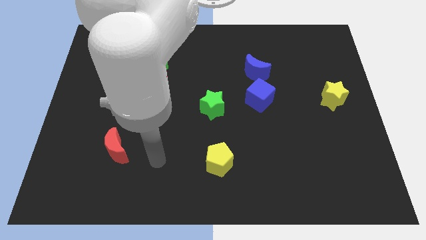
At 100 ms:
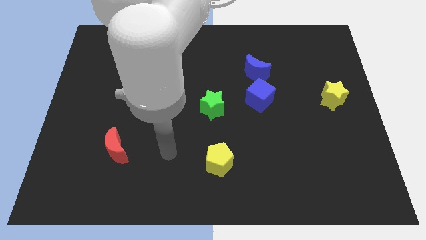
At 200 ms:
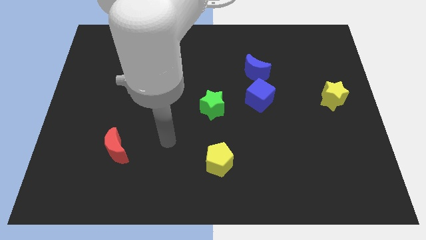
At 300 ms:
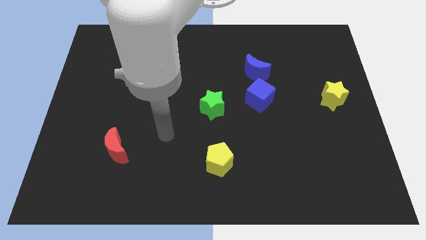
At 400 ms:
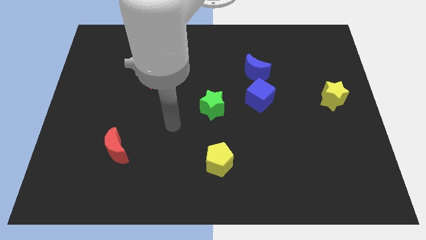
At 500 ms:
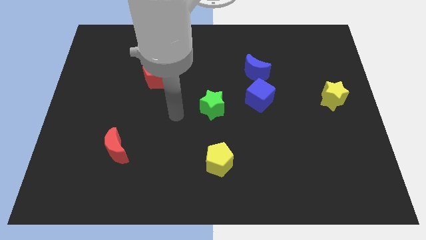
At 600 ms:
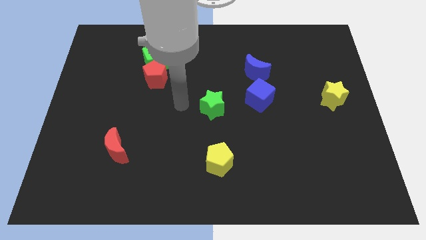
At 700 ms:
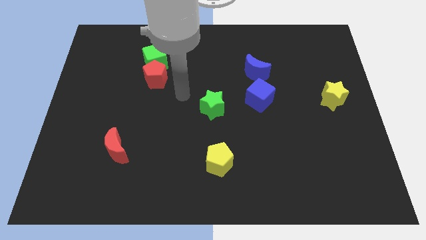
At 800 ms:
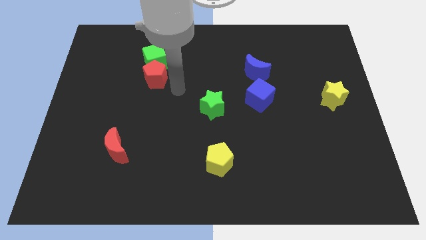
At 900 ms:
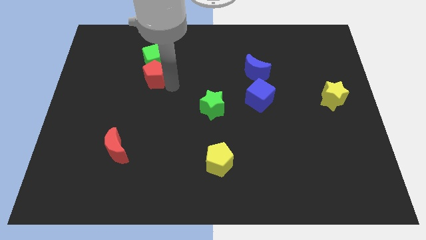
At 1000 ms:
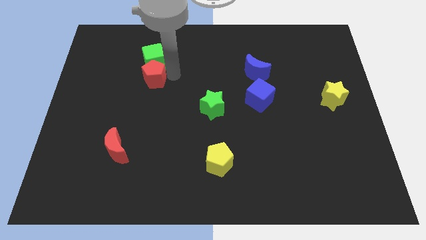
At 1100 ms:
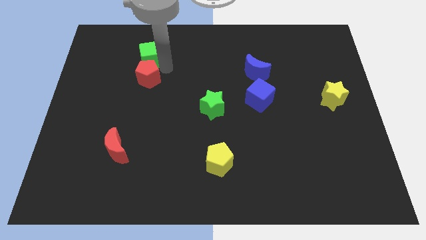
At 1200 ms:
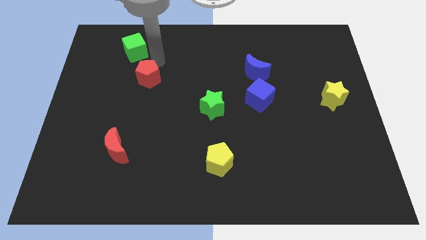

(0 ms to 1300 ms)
separate the red pentagon from the green cube

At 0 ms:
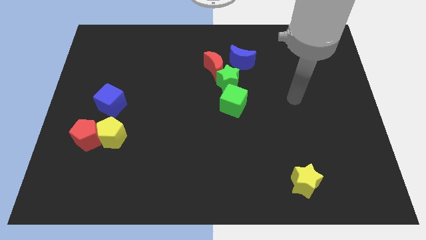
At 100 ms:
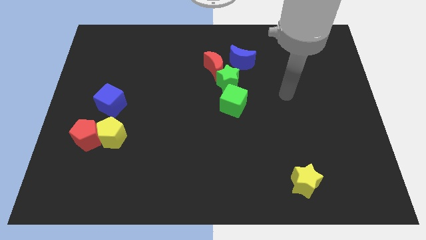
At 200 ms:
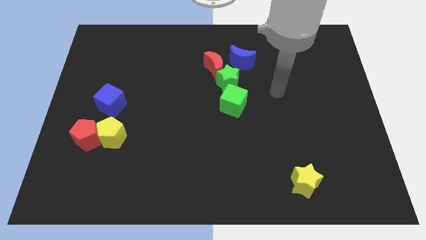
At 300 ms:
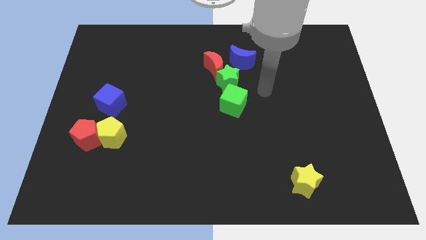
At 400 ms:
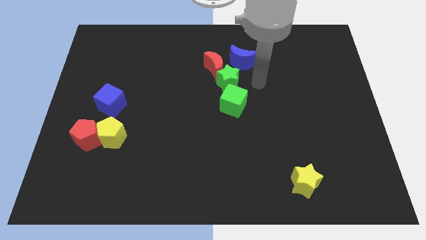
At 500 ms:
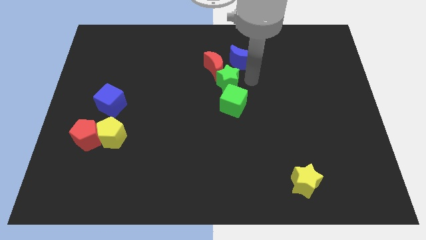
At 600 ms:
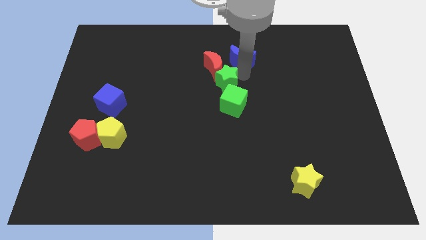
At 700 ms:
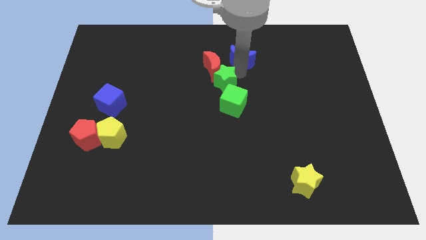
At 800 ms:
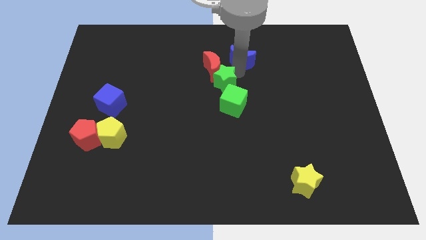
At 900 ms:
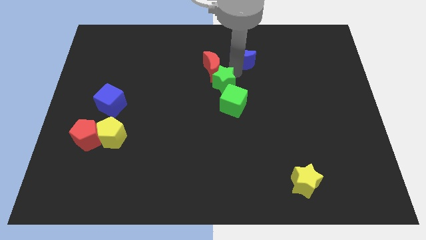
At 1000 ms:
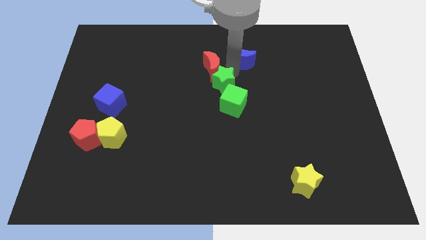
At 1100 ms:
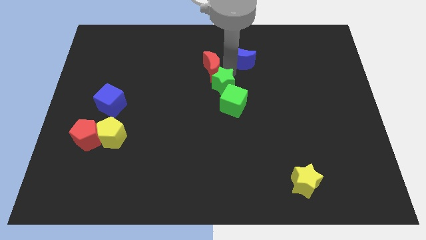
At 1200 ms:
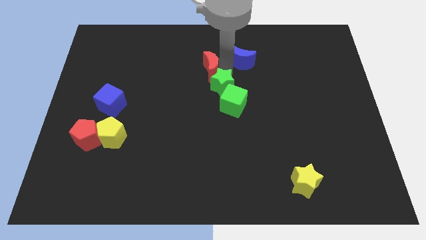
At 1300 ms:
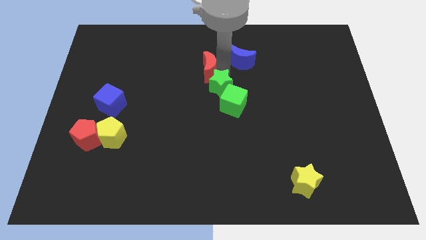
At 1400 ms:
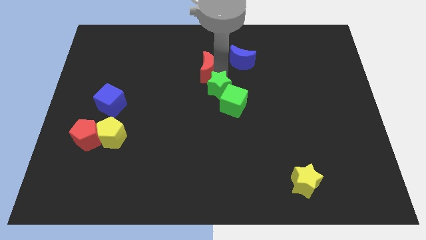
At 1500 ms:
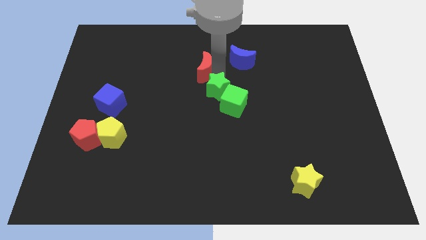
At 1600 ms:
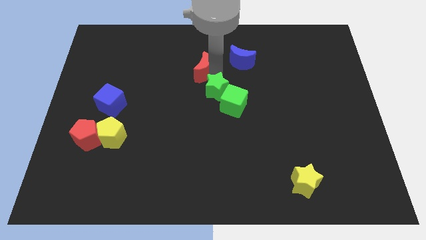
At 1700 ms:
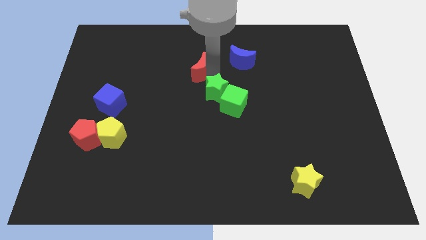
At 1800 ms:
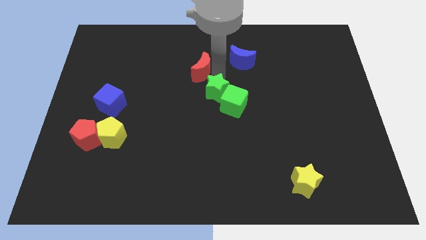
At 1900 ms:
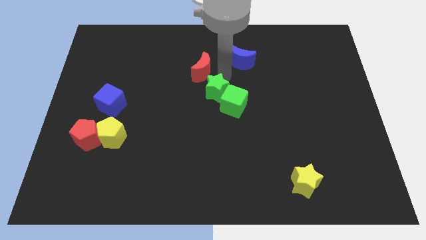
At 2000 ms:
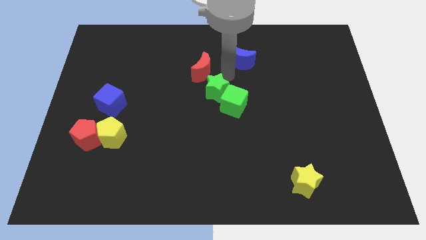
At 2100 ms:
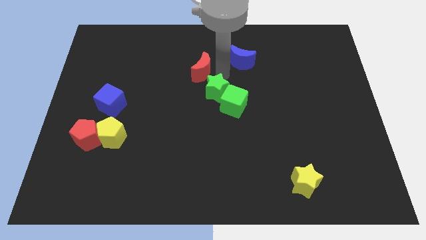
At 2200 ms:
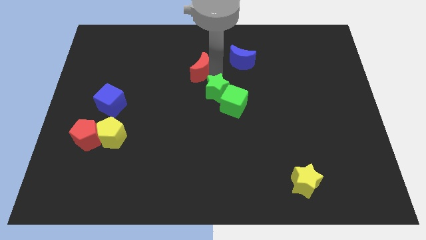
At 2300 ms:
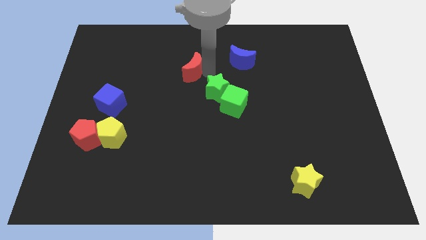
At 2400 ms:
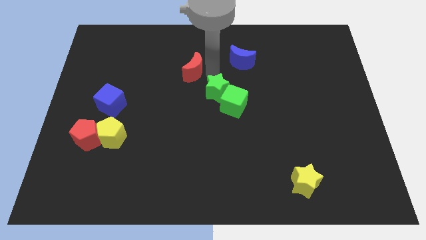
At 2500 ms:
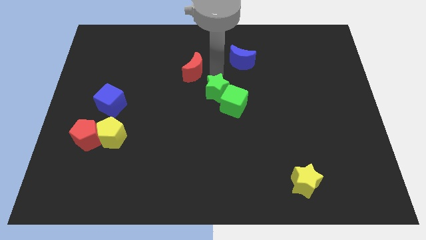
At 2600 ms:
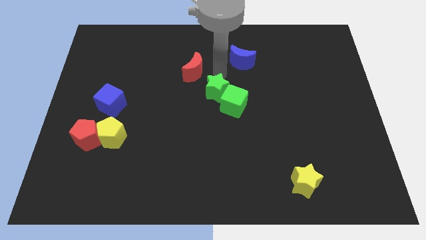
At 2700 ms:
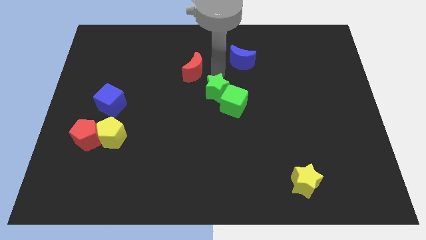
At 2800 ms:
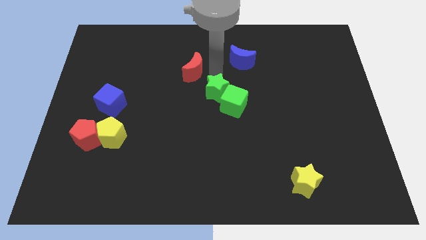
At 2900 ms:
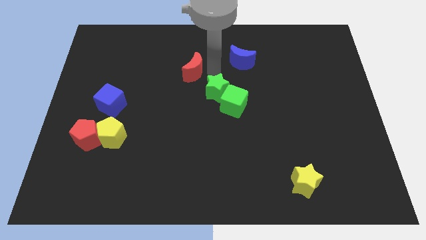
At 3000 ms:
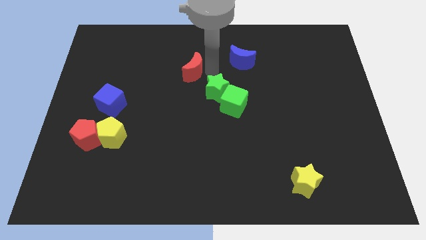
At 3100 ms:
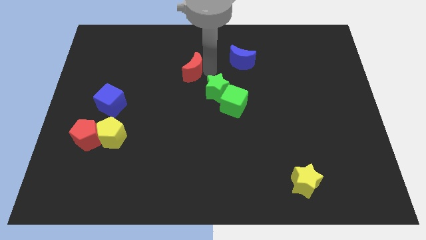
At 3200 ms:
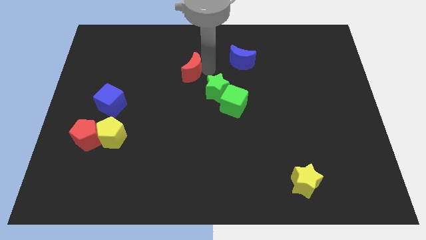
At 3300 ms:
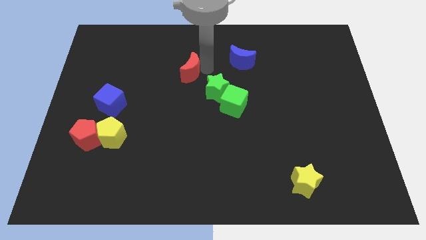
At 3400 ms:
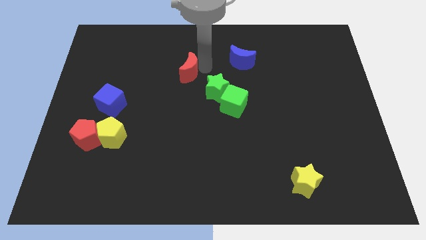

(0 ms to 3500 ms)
pull the red moon apart from the green star and blue moon

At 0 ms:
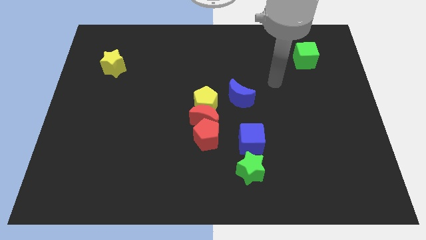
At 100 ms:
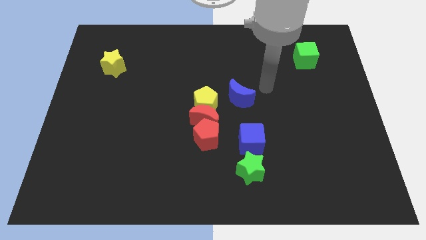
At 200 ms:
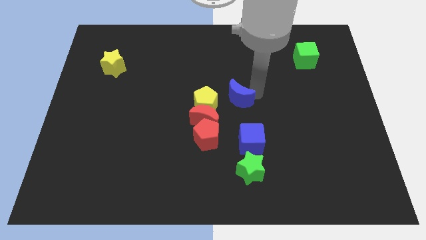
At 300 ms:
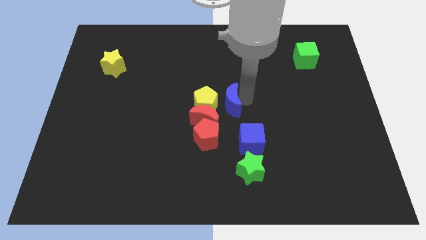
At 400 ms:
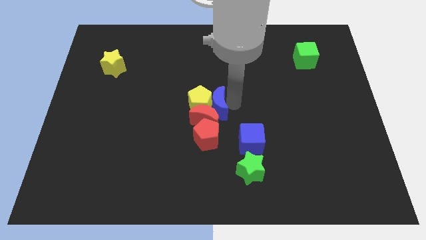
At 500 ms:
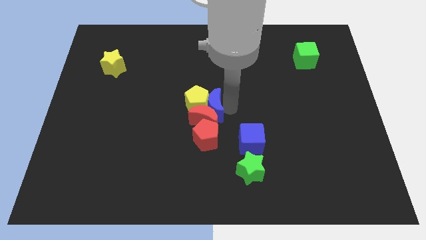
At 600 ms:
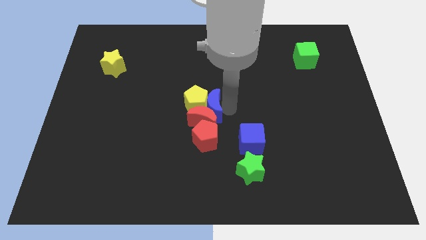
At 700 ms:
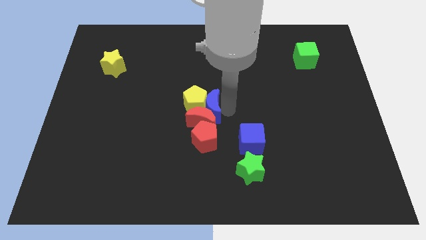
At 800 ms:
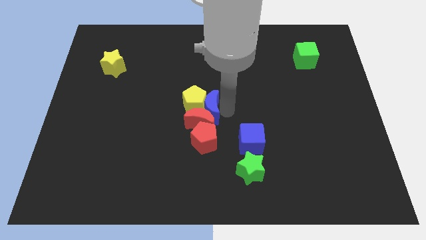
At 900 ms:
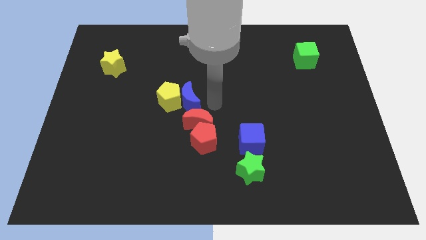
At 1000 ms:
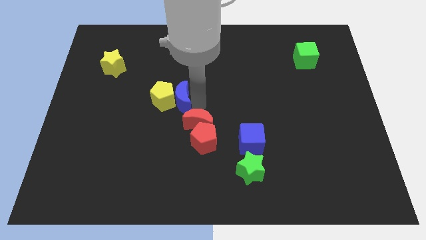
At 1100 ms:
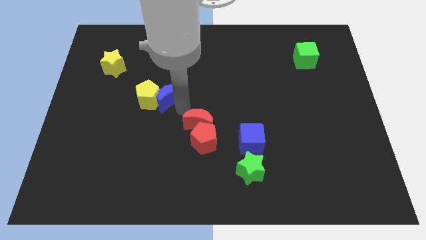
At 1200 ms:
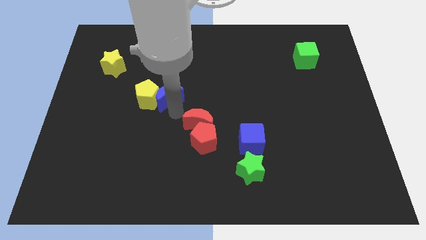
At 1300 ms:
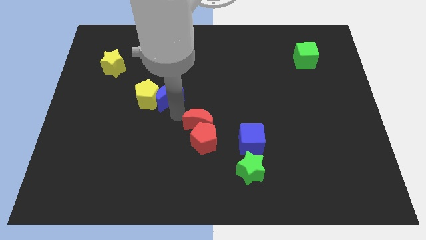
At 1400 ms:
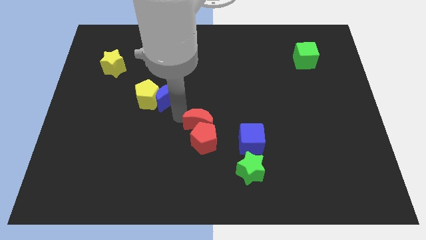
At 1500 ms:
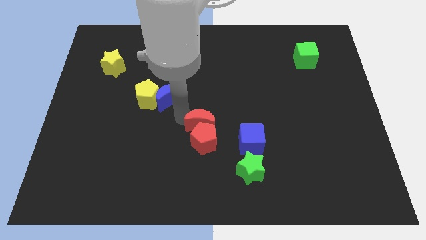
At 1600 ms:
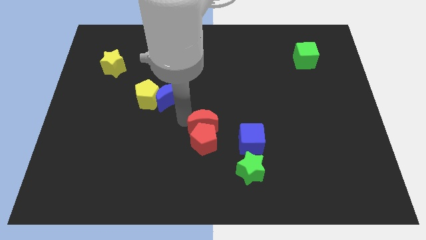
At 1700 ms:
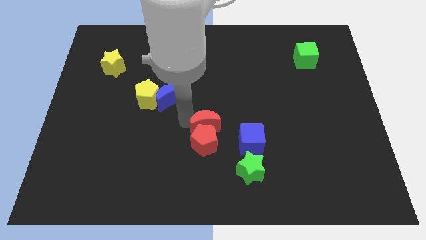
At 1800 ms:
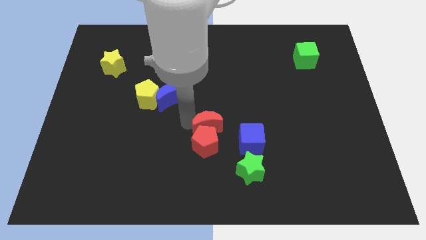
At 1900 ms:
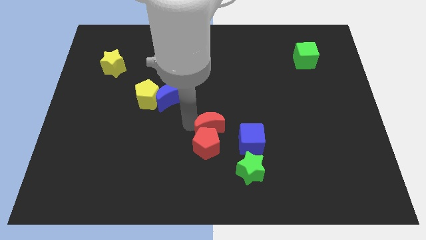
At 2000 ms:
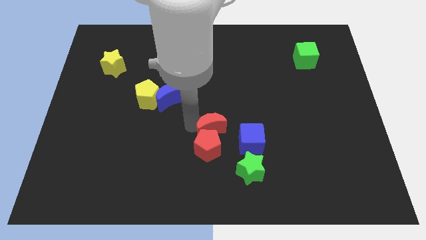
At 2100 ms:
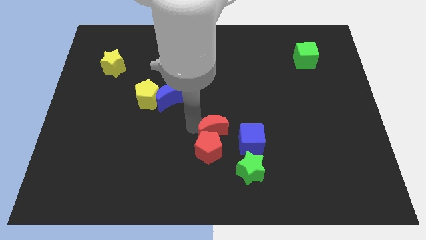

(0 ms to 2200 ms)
separate the red moon from the group

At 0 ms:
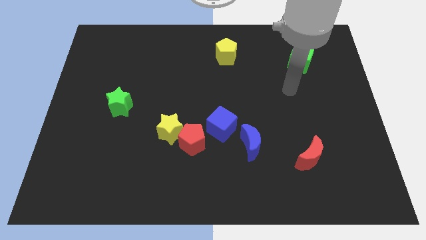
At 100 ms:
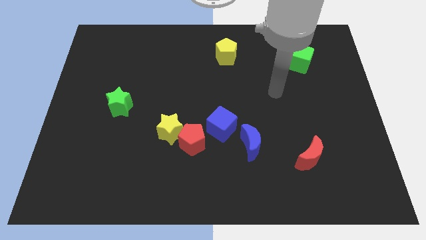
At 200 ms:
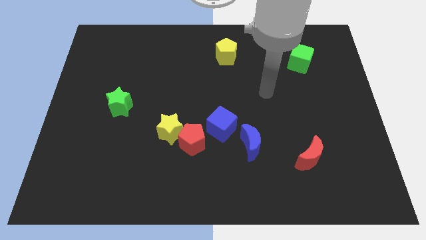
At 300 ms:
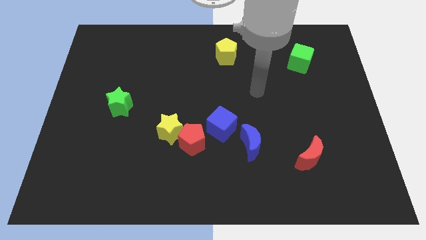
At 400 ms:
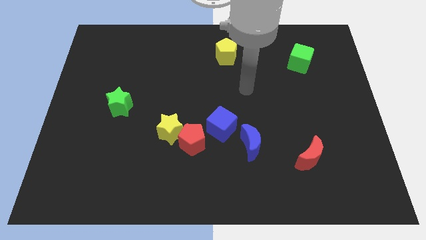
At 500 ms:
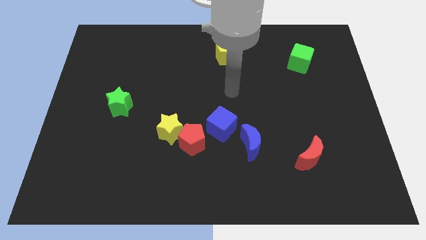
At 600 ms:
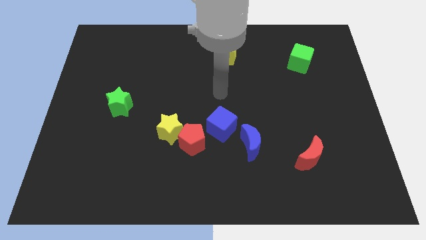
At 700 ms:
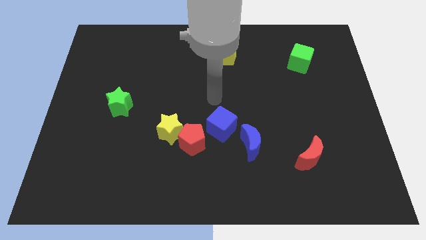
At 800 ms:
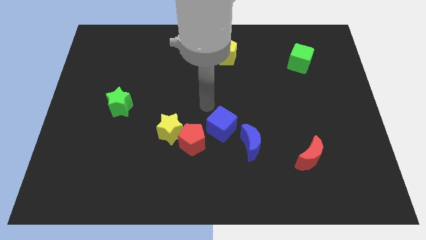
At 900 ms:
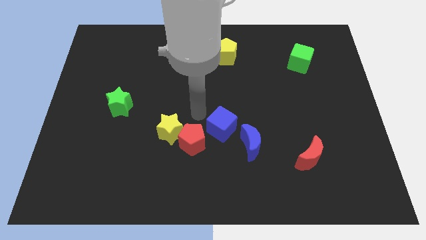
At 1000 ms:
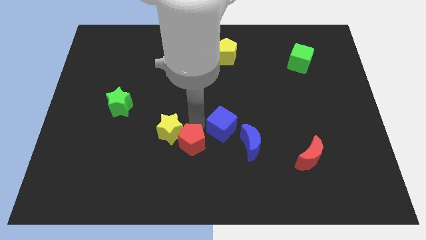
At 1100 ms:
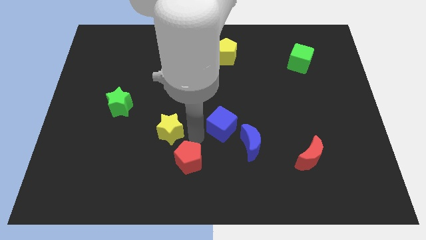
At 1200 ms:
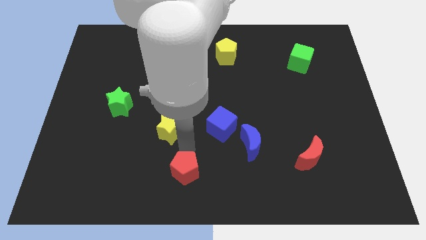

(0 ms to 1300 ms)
separate the yellow star from the red pentagon

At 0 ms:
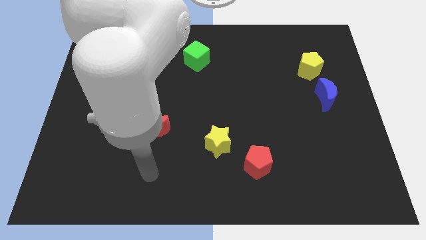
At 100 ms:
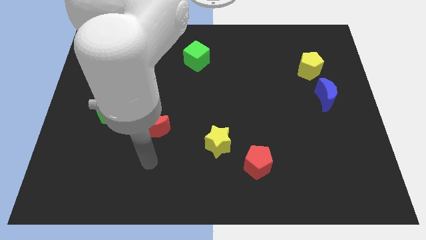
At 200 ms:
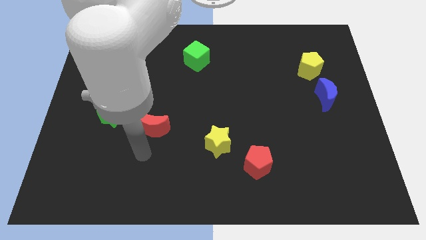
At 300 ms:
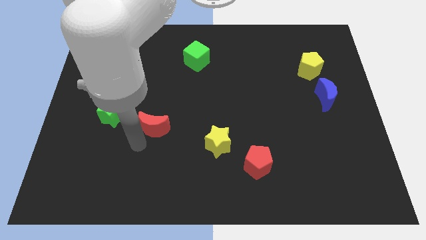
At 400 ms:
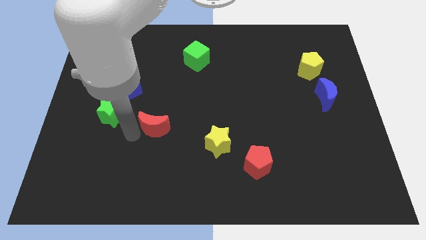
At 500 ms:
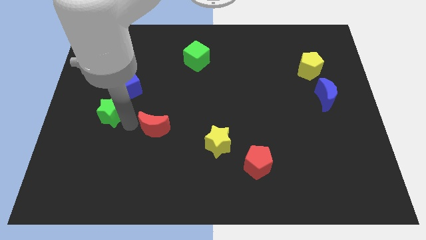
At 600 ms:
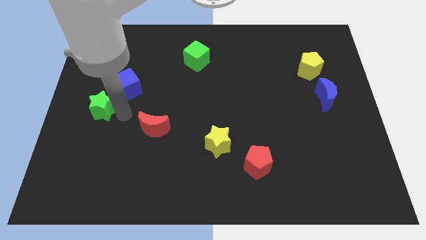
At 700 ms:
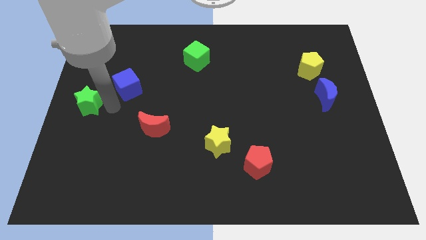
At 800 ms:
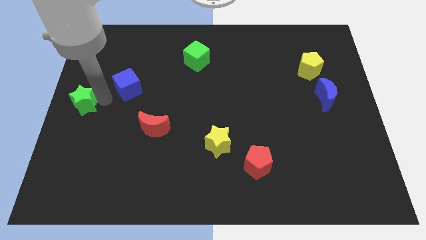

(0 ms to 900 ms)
pull the blue cube apart from the green star

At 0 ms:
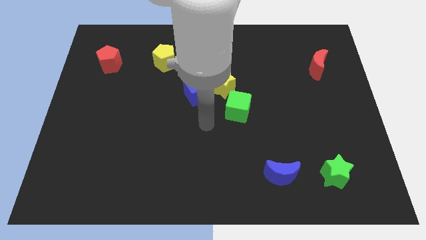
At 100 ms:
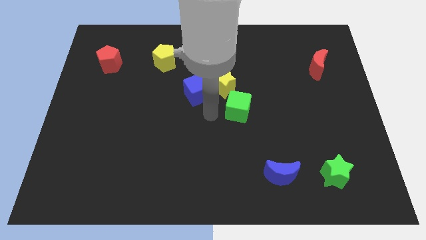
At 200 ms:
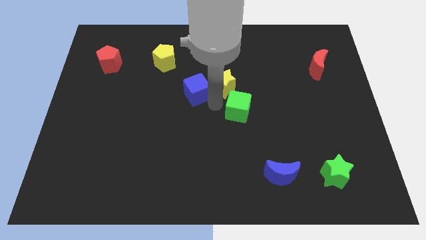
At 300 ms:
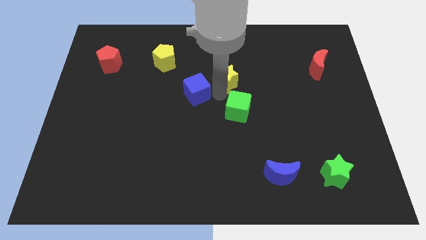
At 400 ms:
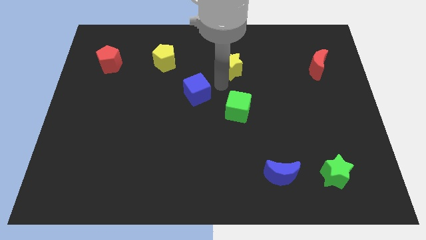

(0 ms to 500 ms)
separate the blue cube from the yellow star
